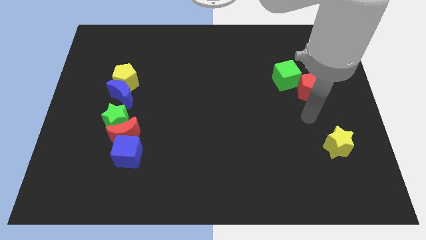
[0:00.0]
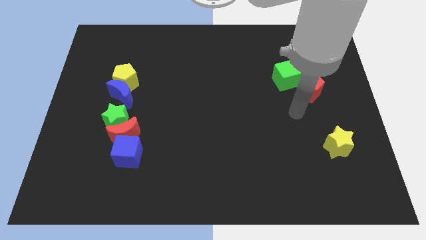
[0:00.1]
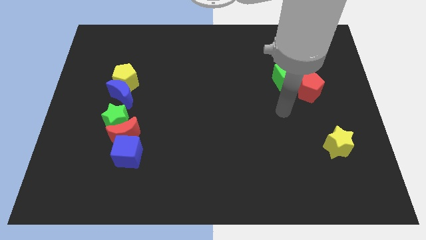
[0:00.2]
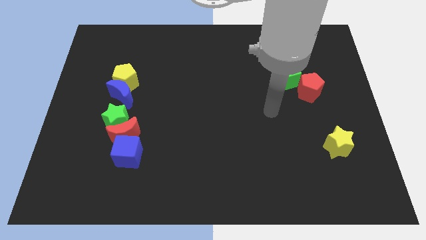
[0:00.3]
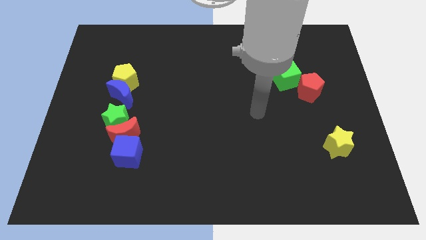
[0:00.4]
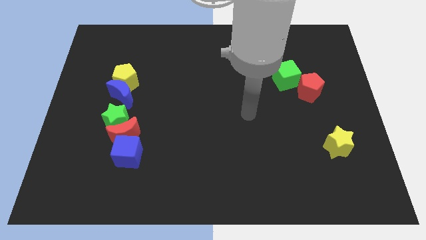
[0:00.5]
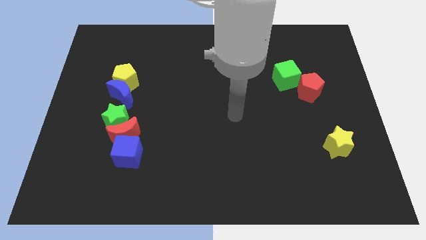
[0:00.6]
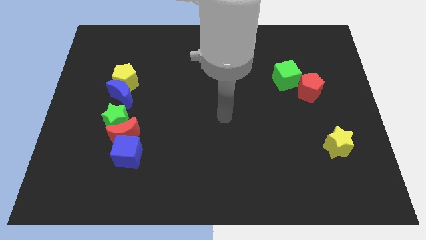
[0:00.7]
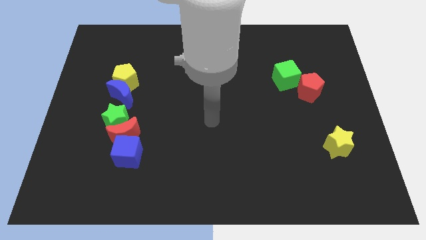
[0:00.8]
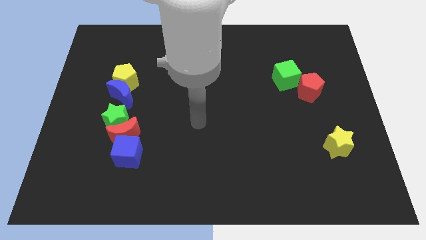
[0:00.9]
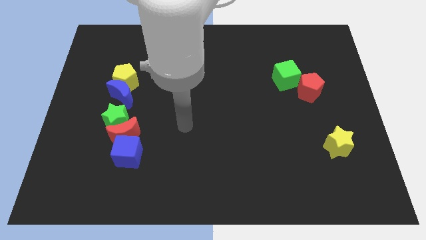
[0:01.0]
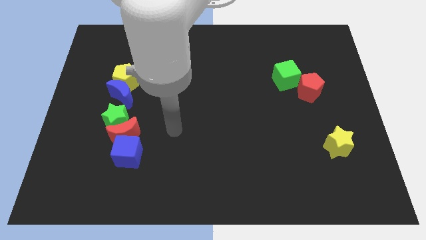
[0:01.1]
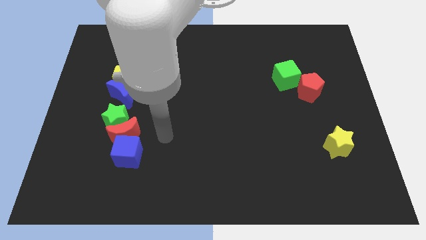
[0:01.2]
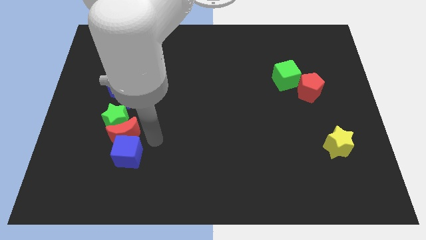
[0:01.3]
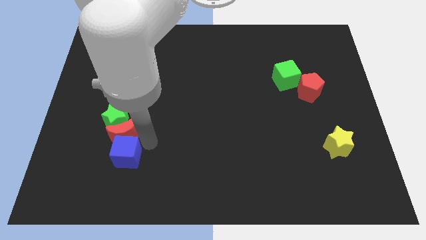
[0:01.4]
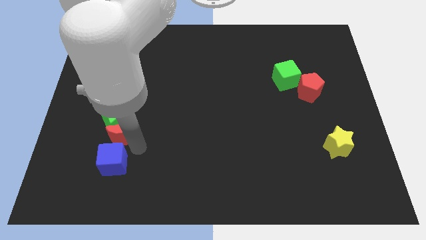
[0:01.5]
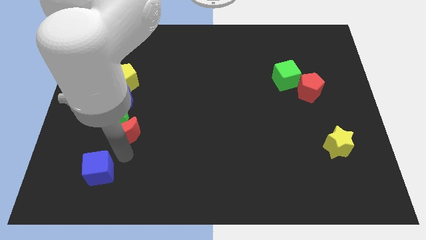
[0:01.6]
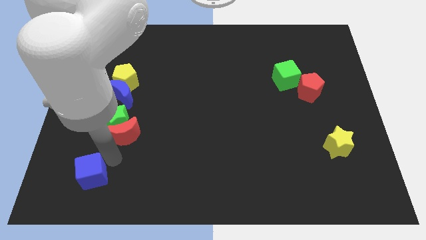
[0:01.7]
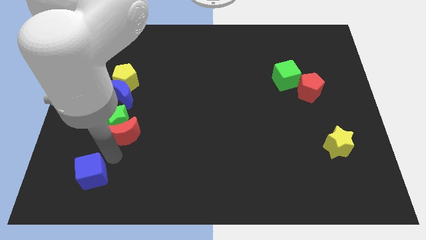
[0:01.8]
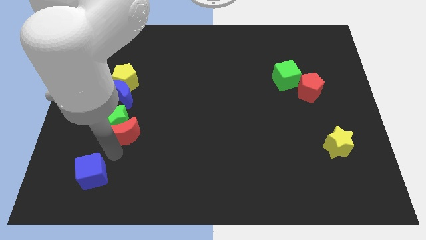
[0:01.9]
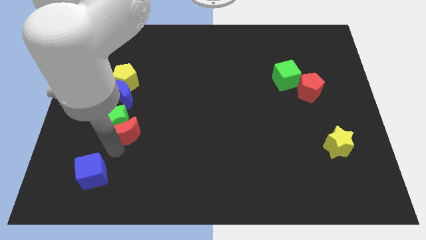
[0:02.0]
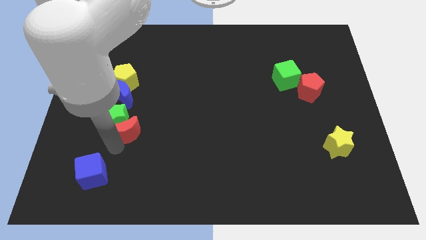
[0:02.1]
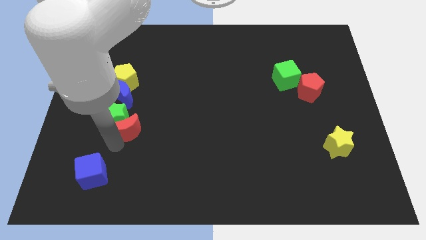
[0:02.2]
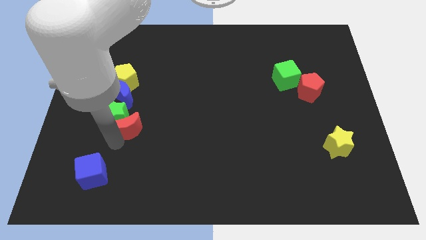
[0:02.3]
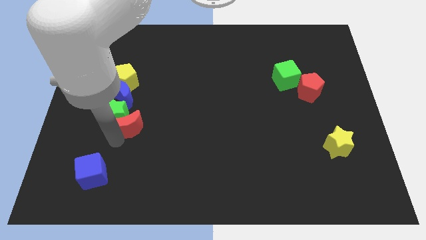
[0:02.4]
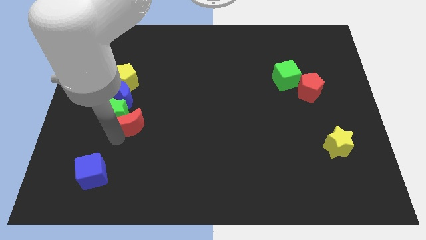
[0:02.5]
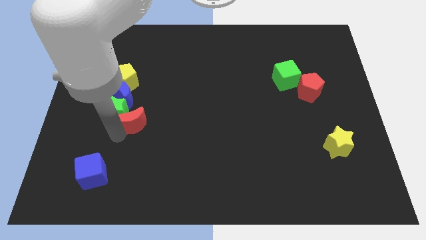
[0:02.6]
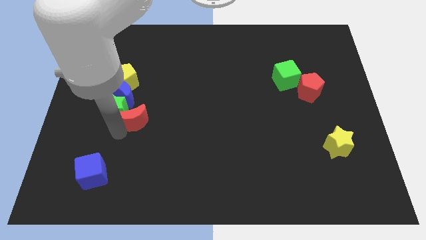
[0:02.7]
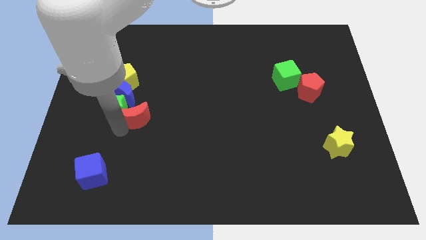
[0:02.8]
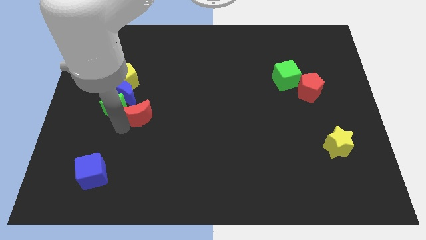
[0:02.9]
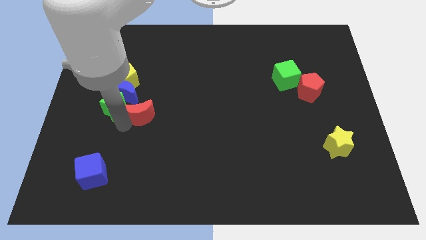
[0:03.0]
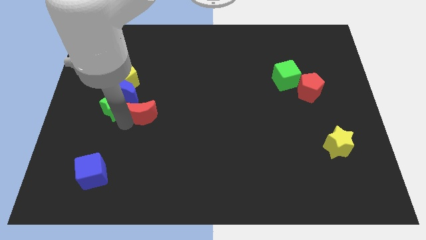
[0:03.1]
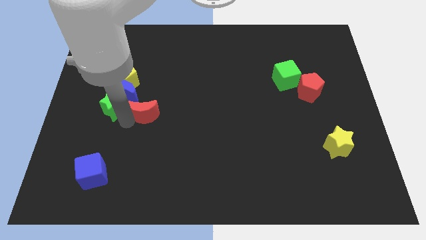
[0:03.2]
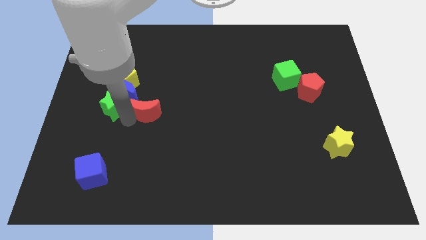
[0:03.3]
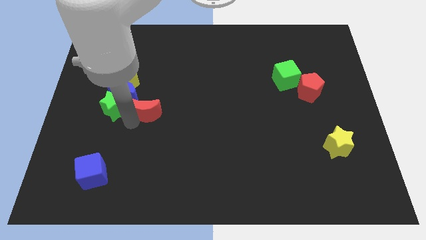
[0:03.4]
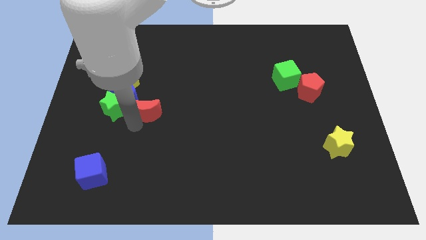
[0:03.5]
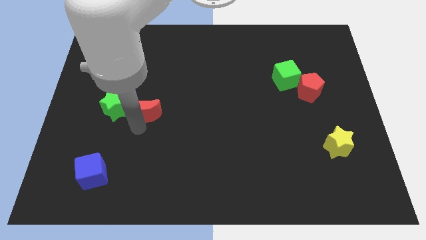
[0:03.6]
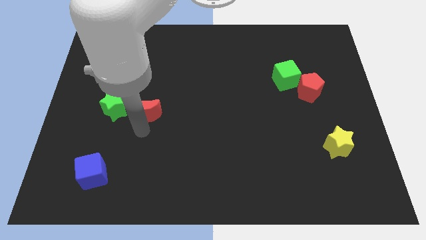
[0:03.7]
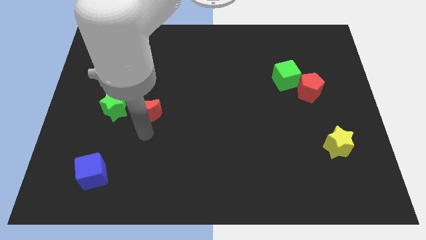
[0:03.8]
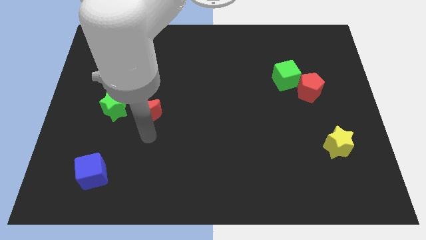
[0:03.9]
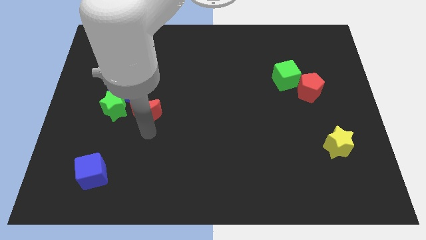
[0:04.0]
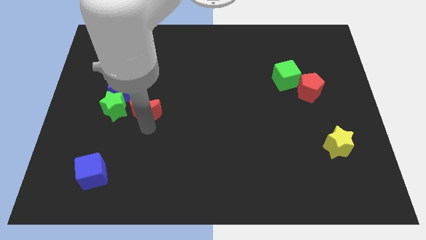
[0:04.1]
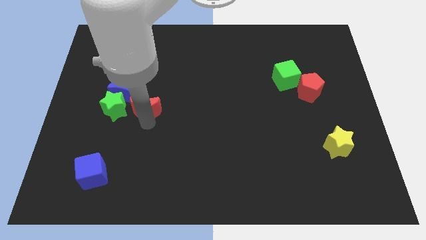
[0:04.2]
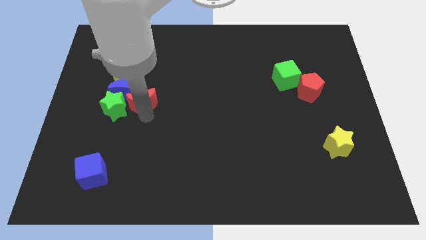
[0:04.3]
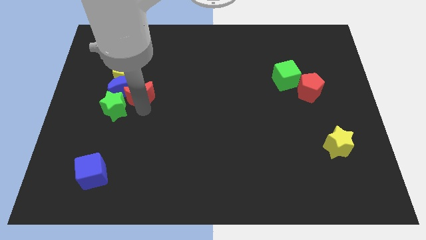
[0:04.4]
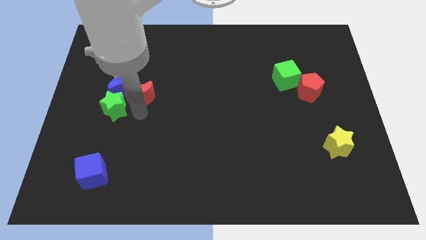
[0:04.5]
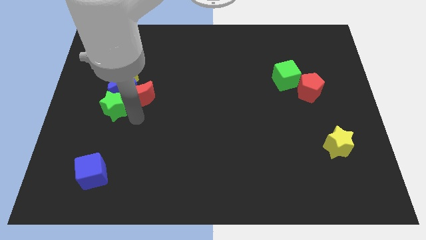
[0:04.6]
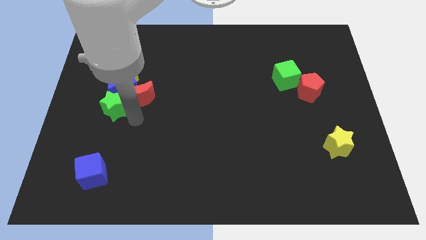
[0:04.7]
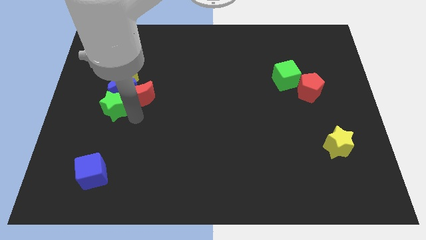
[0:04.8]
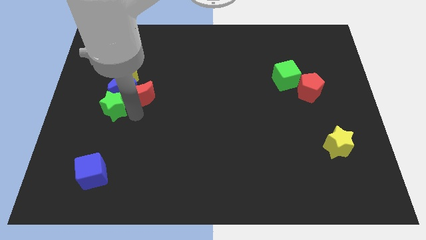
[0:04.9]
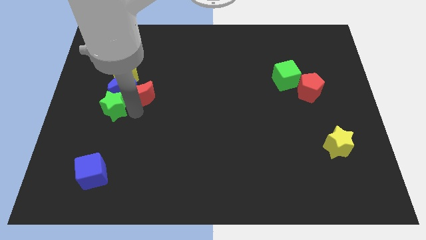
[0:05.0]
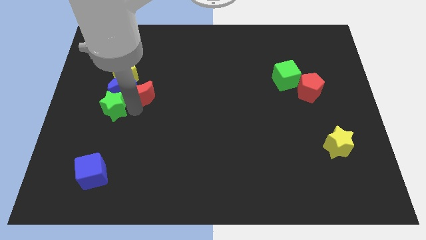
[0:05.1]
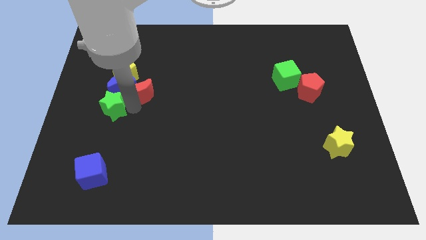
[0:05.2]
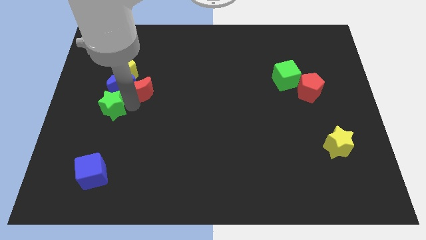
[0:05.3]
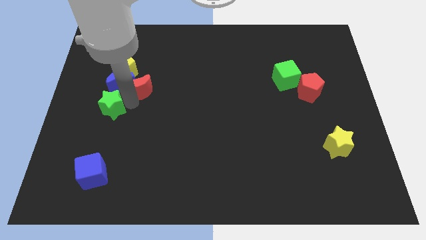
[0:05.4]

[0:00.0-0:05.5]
move the red moon to the top right side of the blue moon

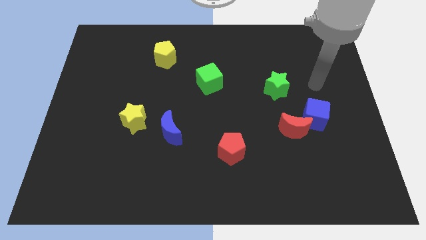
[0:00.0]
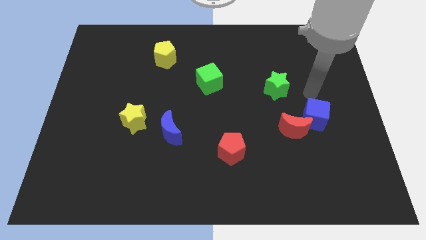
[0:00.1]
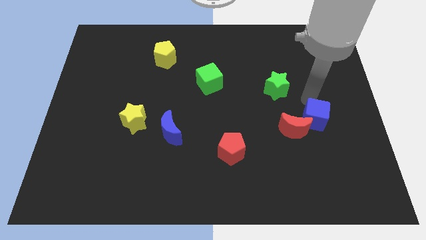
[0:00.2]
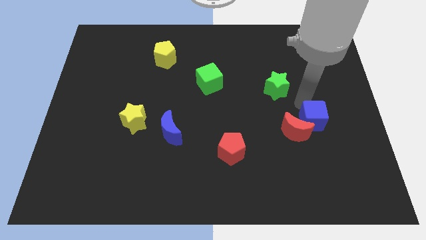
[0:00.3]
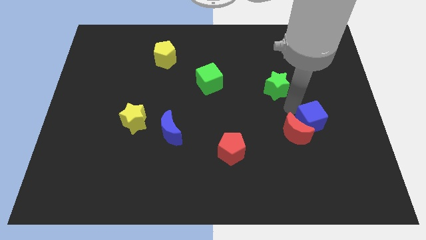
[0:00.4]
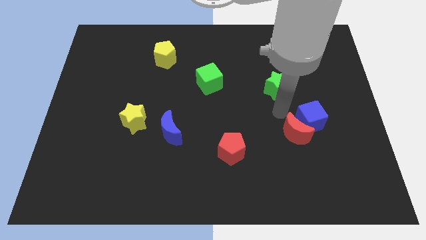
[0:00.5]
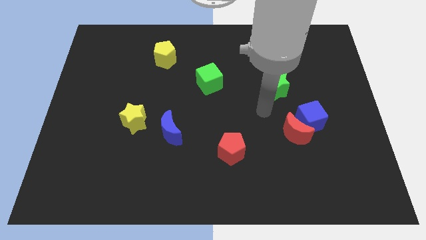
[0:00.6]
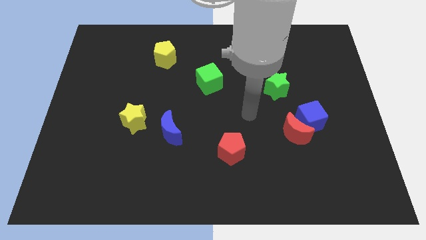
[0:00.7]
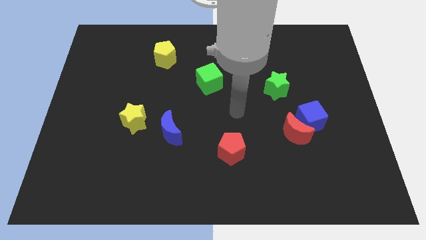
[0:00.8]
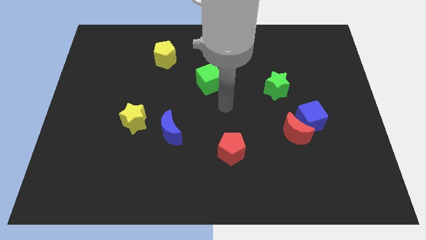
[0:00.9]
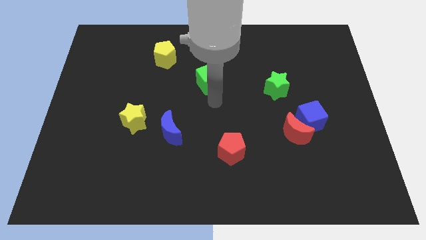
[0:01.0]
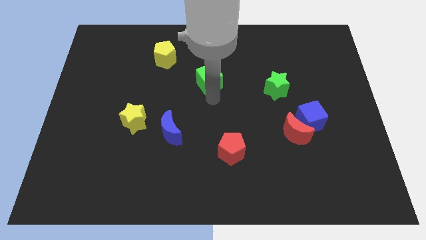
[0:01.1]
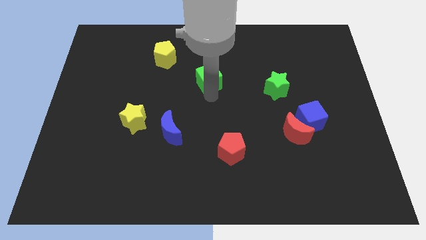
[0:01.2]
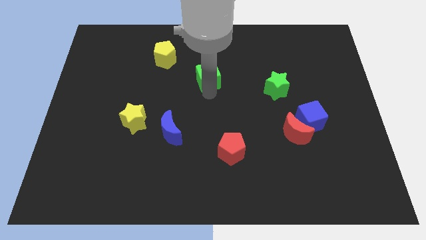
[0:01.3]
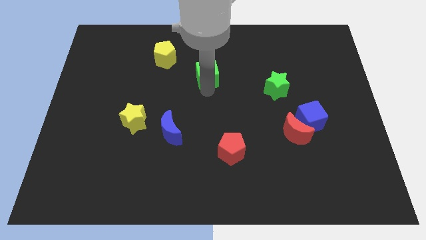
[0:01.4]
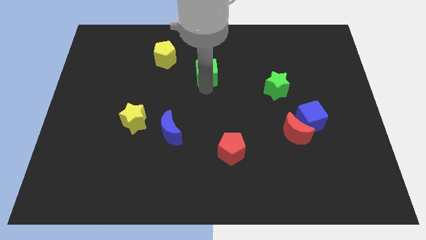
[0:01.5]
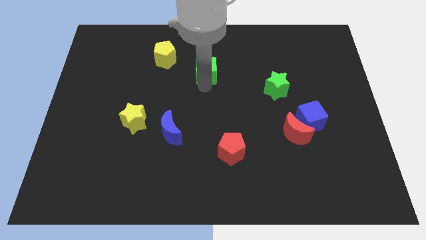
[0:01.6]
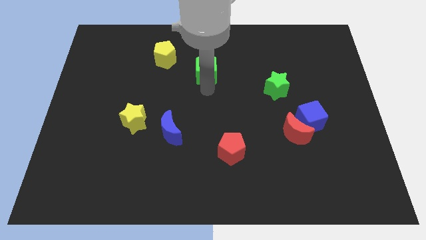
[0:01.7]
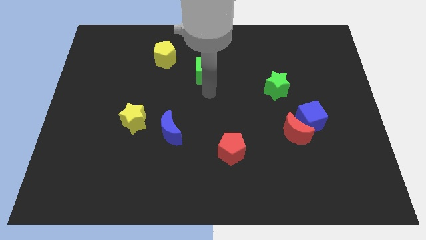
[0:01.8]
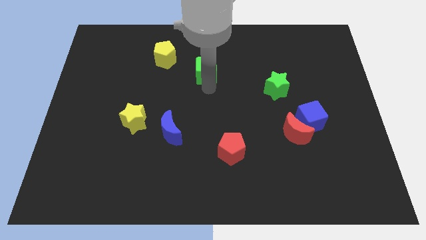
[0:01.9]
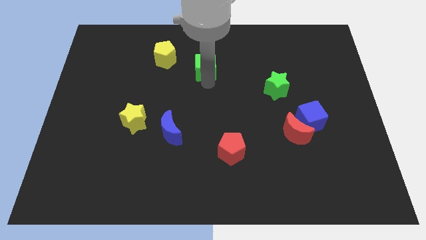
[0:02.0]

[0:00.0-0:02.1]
push the green cube right of the yellow pentagon

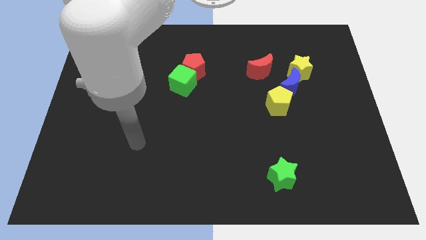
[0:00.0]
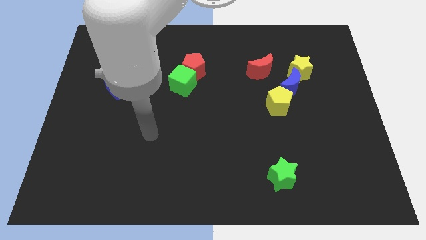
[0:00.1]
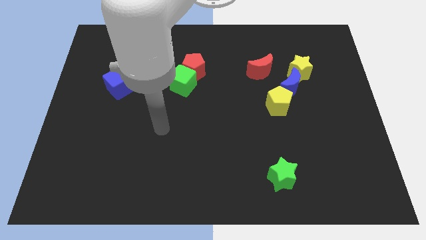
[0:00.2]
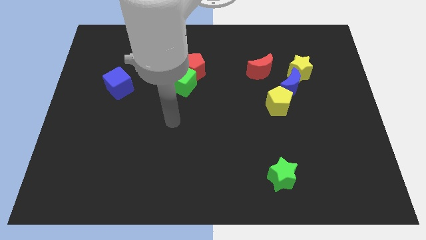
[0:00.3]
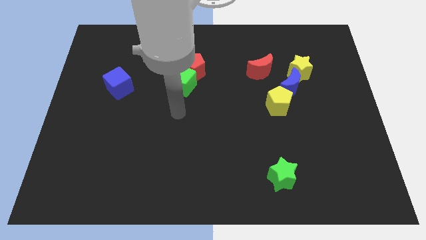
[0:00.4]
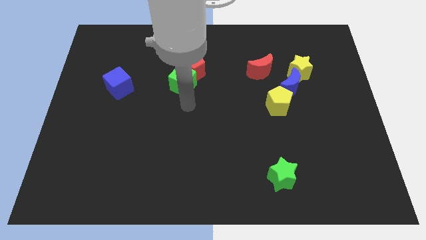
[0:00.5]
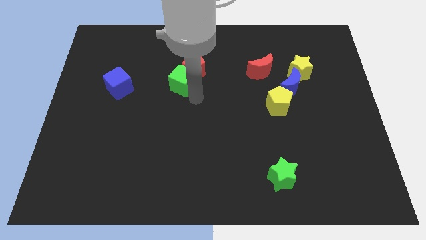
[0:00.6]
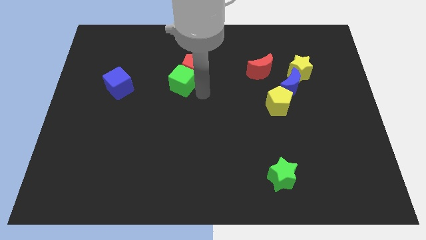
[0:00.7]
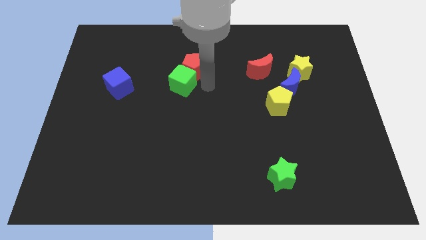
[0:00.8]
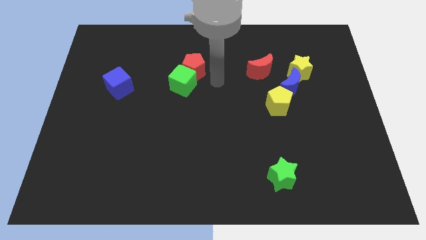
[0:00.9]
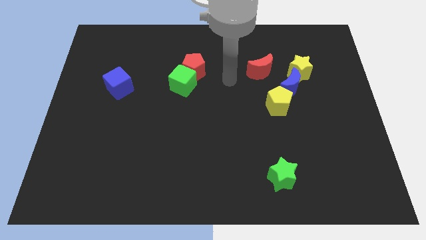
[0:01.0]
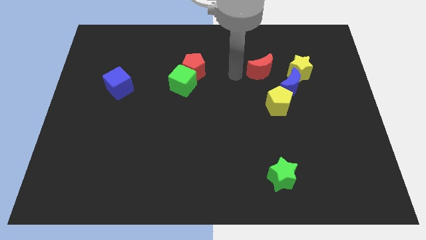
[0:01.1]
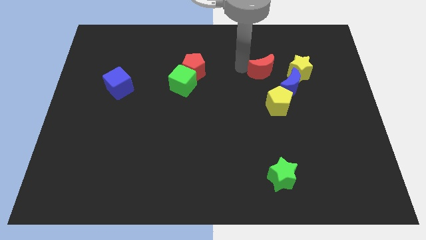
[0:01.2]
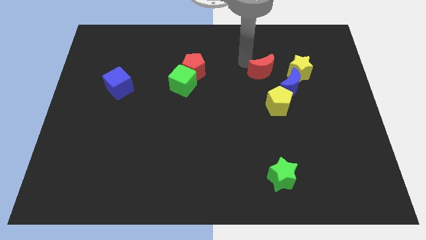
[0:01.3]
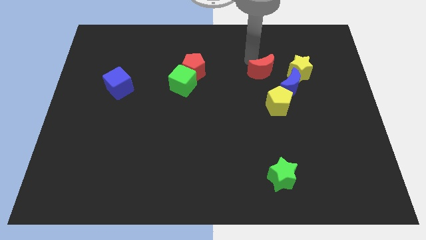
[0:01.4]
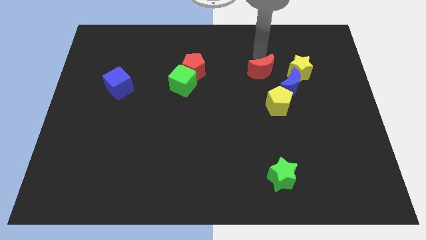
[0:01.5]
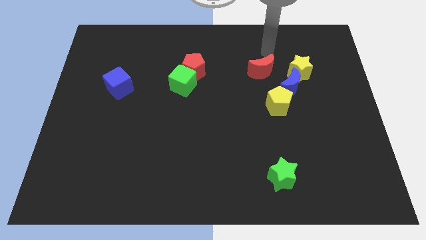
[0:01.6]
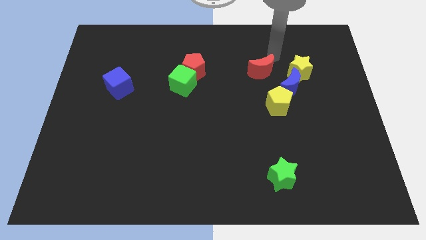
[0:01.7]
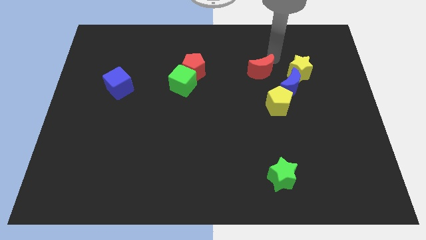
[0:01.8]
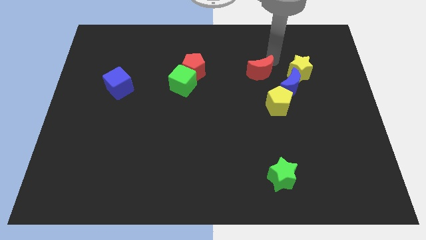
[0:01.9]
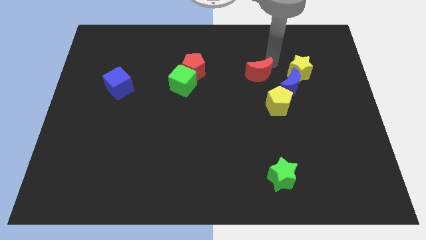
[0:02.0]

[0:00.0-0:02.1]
move the red moon left of the blue moon
